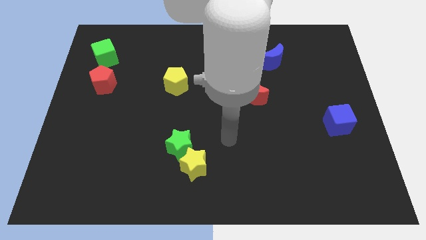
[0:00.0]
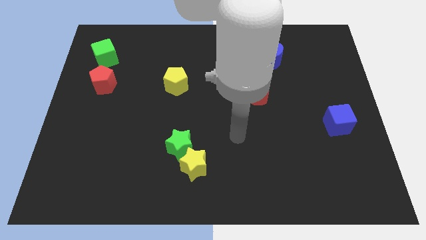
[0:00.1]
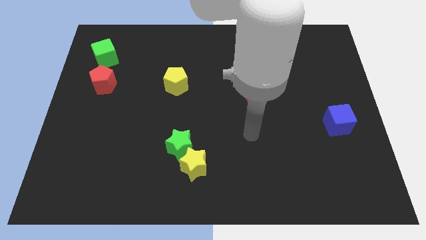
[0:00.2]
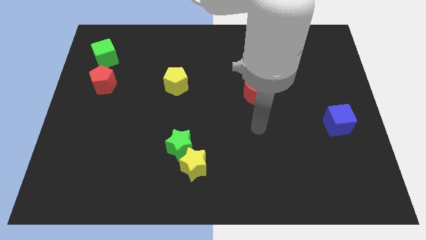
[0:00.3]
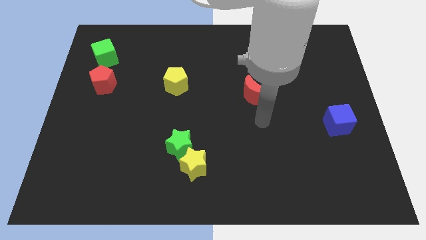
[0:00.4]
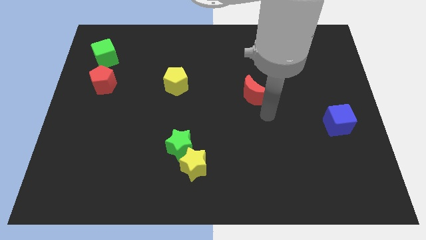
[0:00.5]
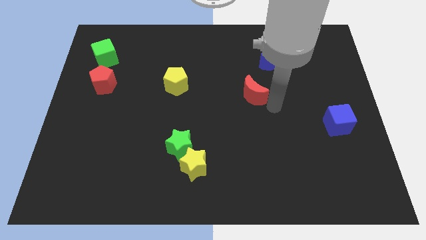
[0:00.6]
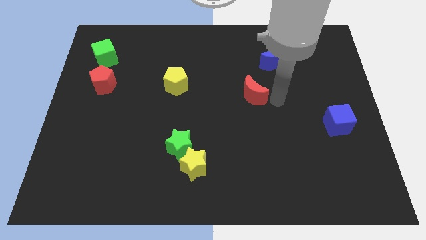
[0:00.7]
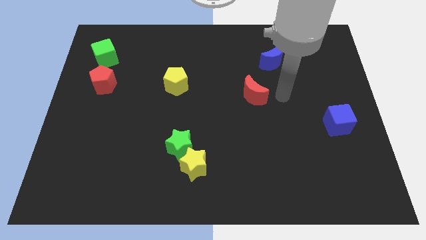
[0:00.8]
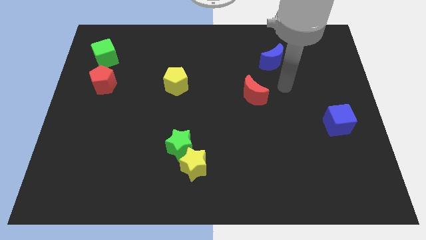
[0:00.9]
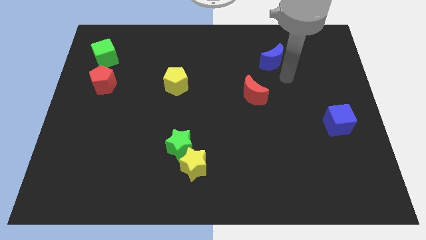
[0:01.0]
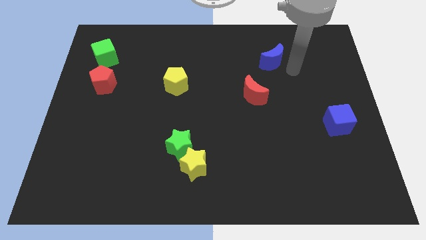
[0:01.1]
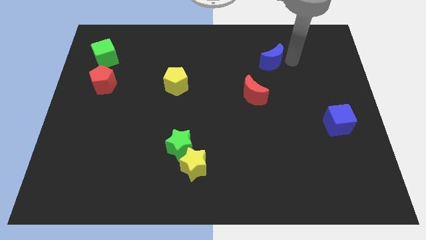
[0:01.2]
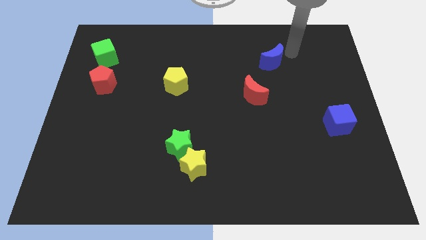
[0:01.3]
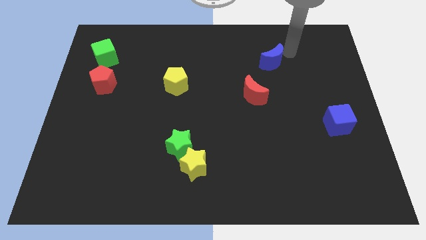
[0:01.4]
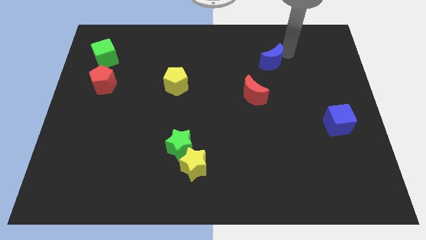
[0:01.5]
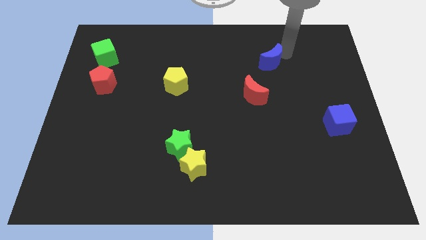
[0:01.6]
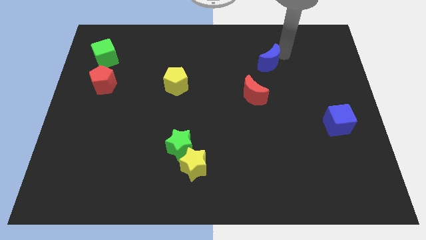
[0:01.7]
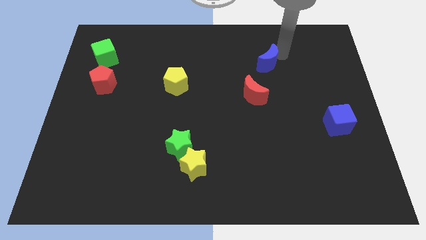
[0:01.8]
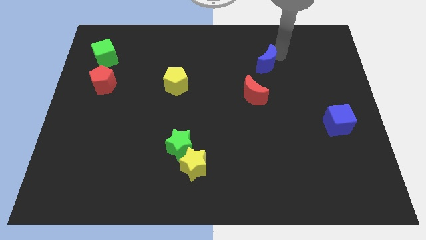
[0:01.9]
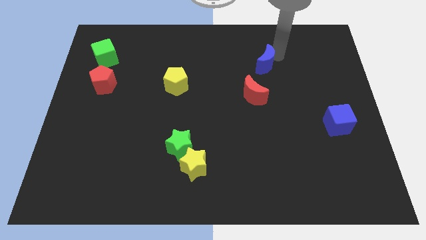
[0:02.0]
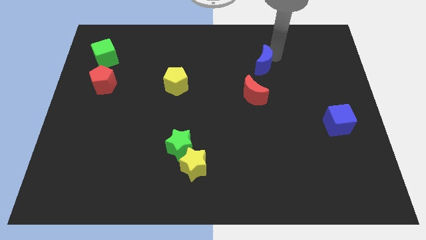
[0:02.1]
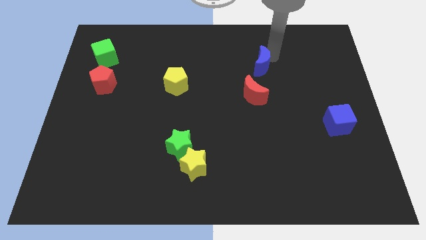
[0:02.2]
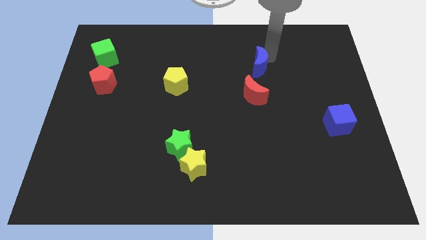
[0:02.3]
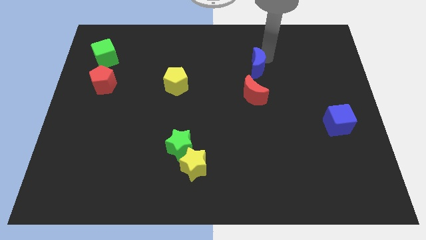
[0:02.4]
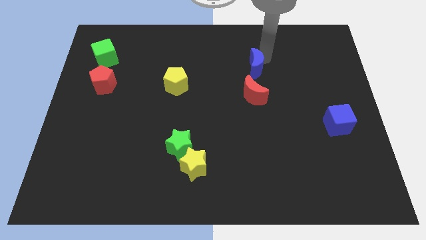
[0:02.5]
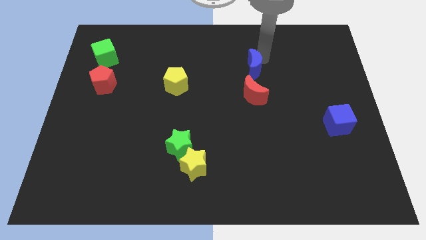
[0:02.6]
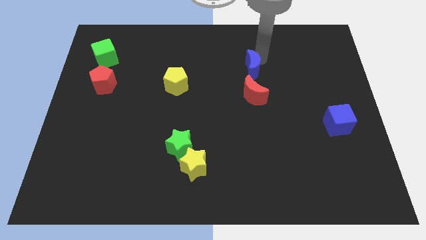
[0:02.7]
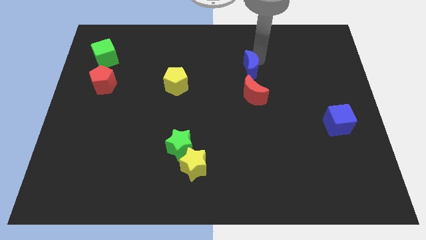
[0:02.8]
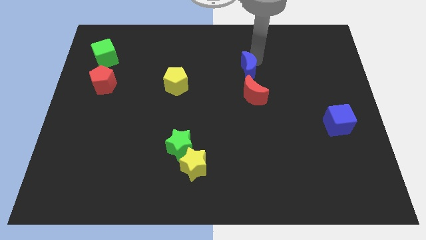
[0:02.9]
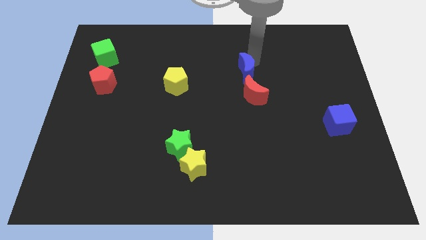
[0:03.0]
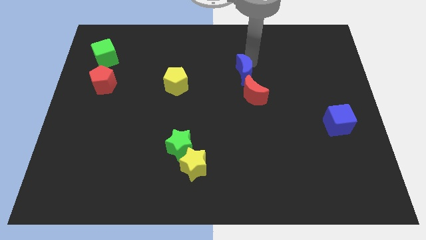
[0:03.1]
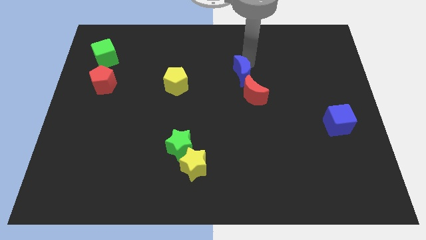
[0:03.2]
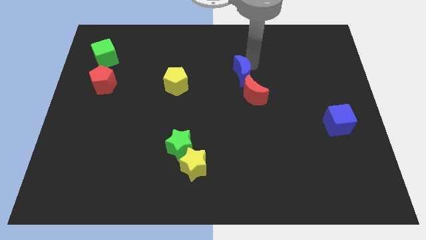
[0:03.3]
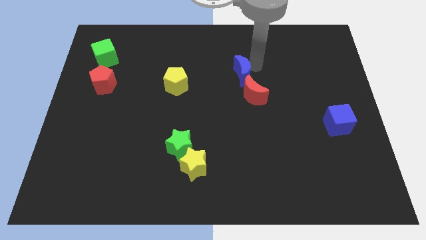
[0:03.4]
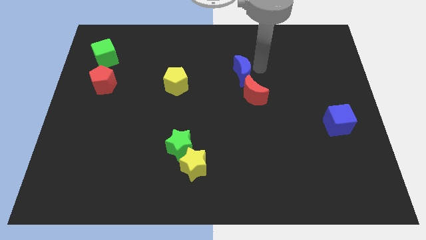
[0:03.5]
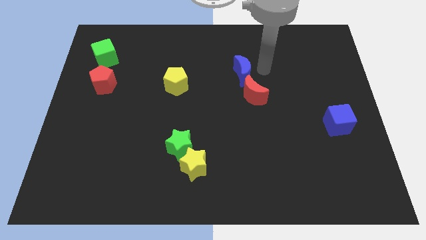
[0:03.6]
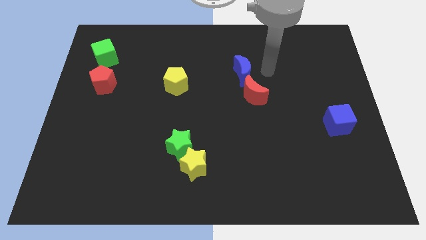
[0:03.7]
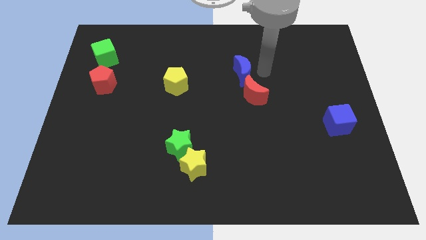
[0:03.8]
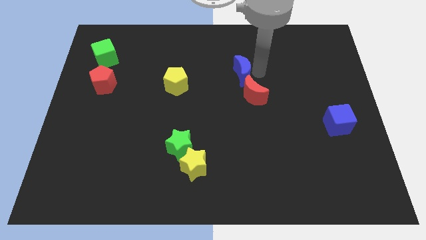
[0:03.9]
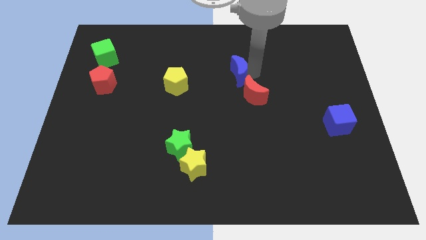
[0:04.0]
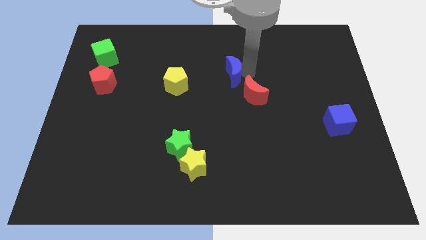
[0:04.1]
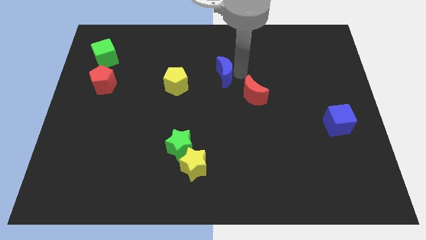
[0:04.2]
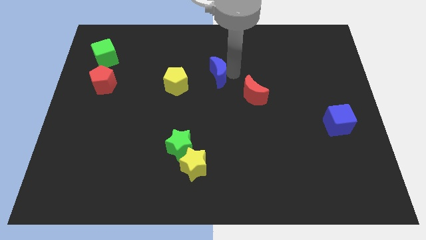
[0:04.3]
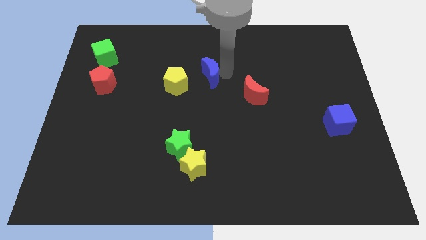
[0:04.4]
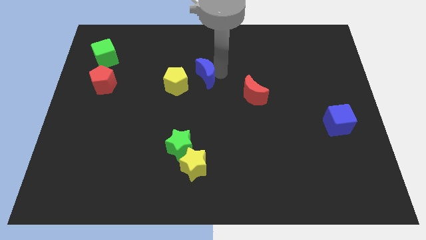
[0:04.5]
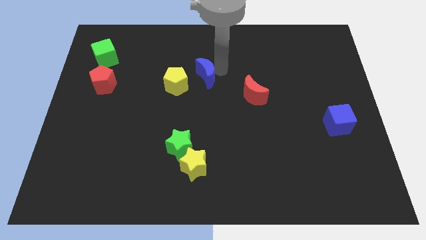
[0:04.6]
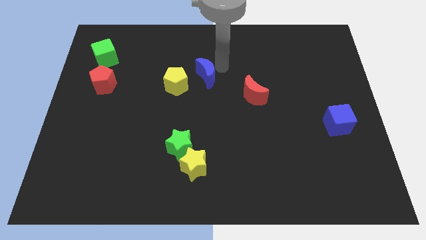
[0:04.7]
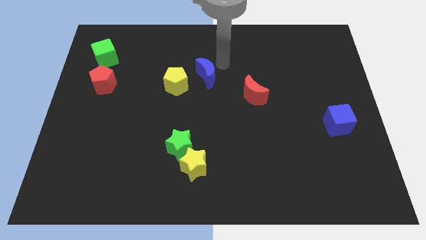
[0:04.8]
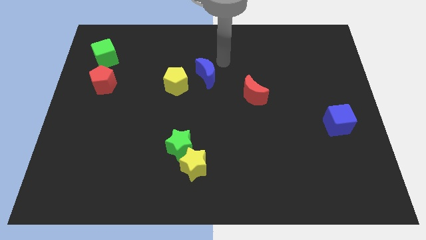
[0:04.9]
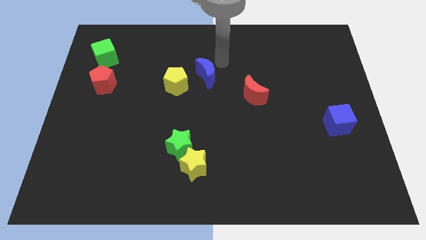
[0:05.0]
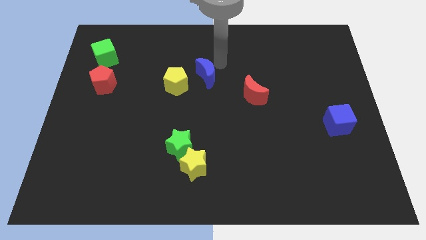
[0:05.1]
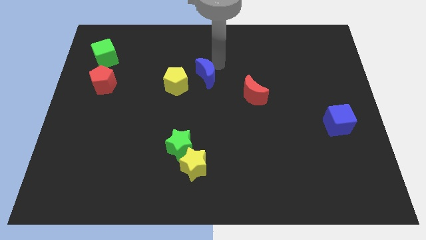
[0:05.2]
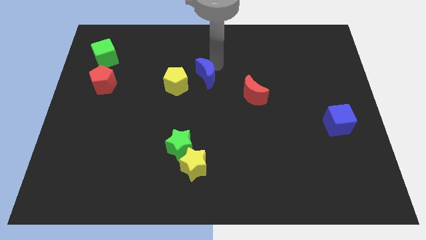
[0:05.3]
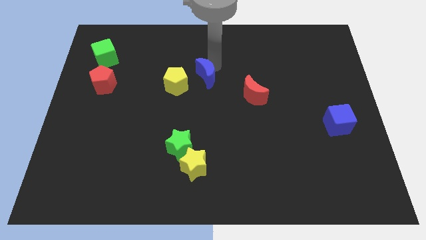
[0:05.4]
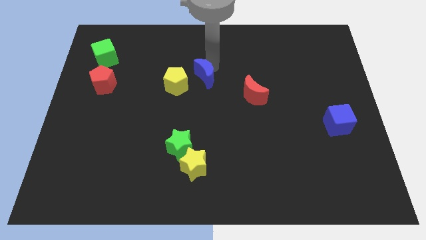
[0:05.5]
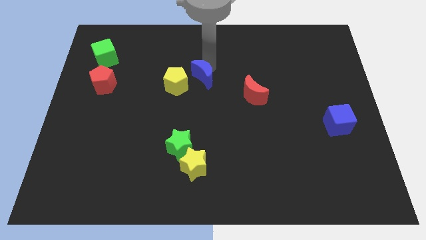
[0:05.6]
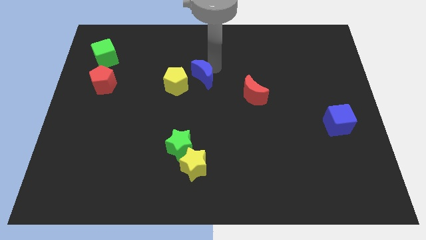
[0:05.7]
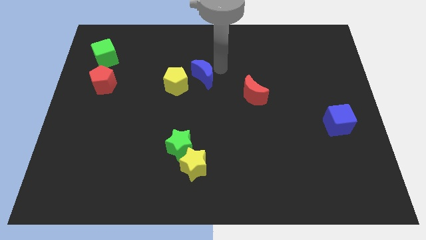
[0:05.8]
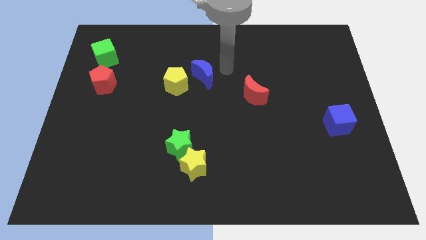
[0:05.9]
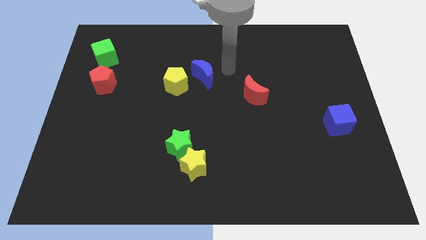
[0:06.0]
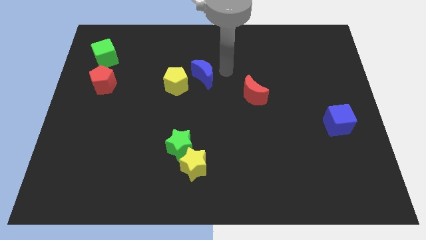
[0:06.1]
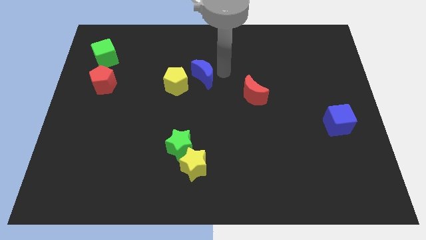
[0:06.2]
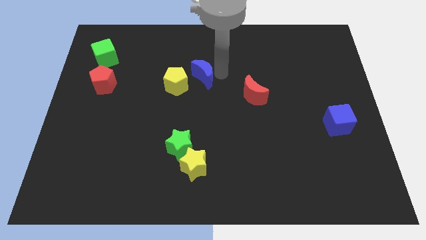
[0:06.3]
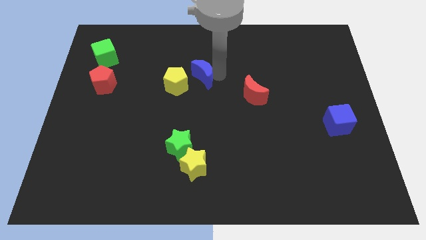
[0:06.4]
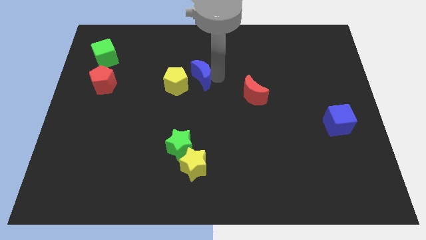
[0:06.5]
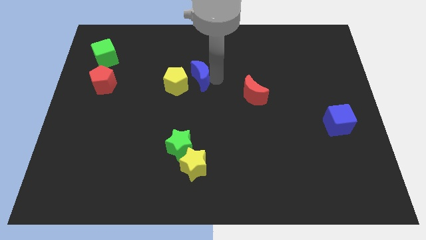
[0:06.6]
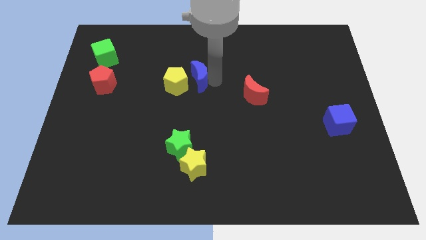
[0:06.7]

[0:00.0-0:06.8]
move the blue moon to the yellow pentagon
